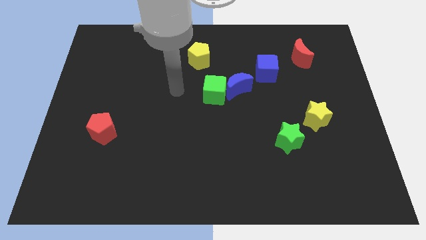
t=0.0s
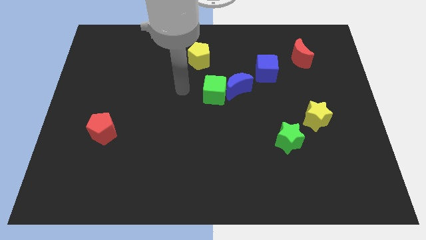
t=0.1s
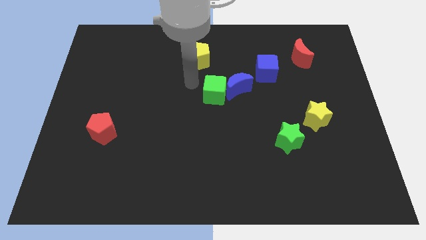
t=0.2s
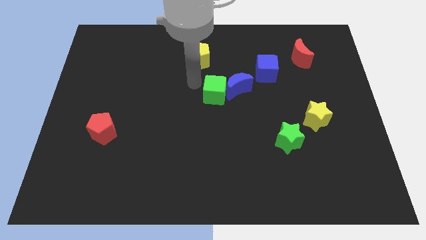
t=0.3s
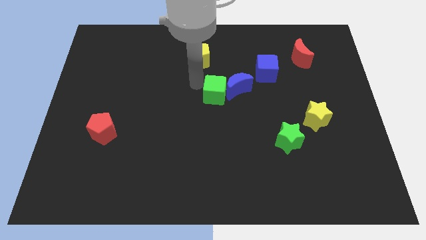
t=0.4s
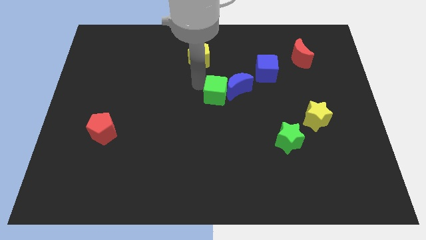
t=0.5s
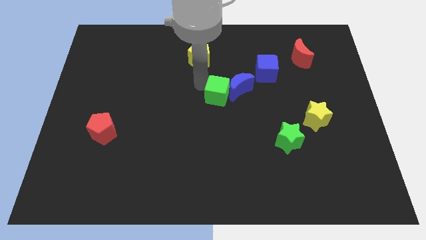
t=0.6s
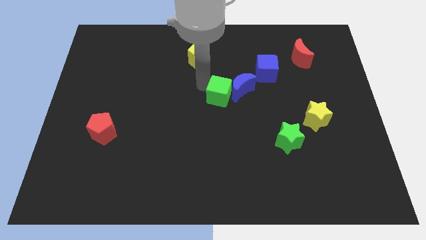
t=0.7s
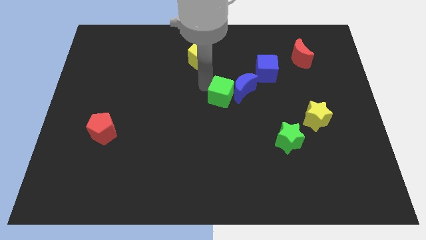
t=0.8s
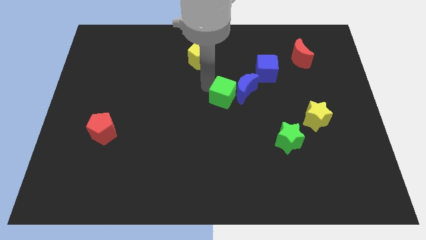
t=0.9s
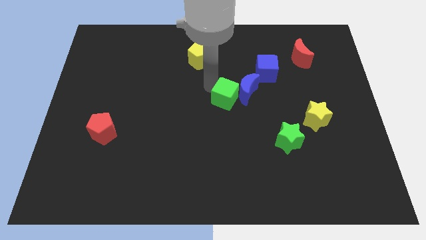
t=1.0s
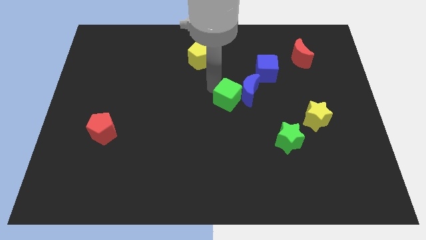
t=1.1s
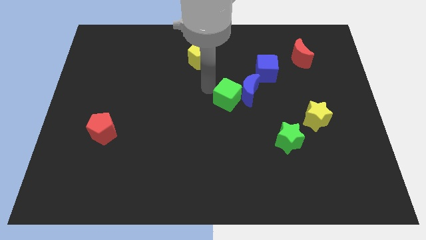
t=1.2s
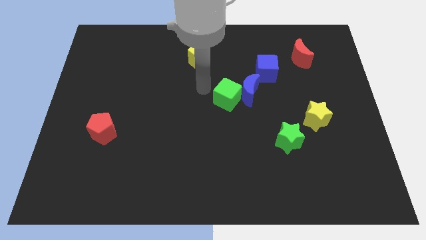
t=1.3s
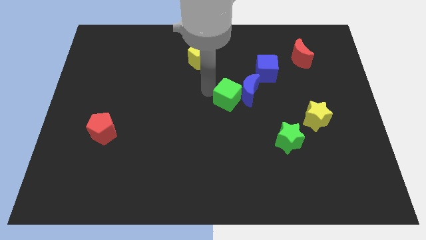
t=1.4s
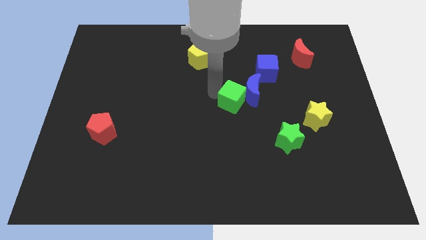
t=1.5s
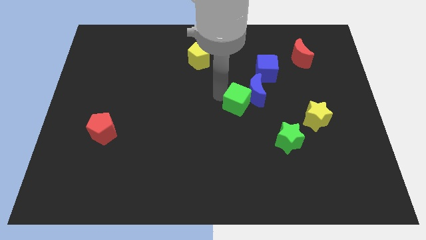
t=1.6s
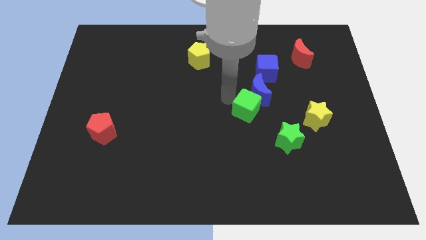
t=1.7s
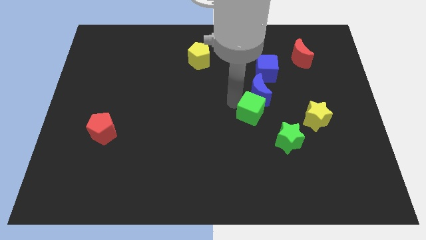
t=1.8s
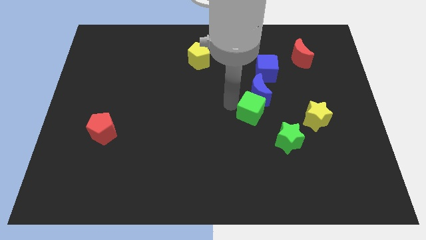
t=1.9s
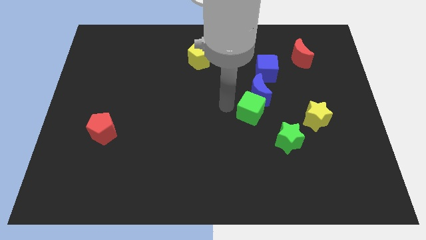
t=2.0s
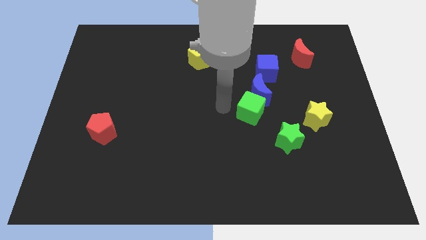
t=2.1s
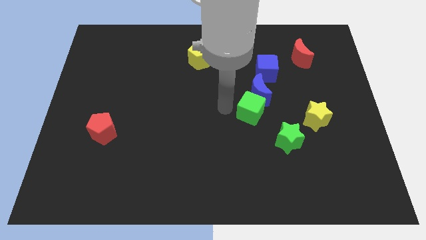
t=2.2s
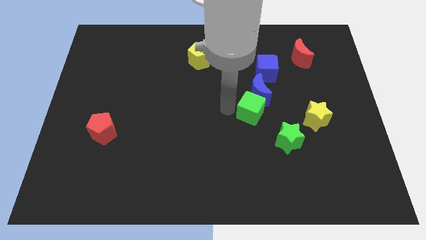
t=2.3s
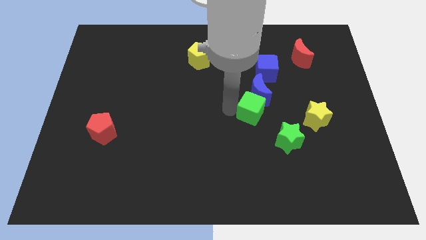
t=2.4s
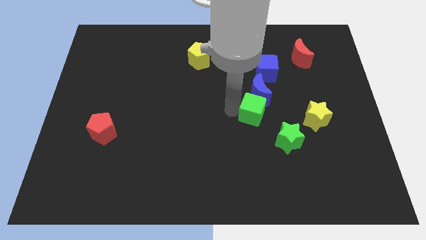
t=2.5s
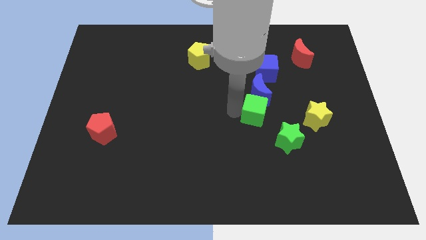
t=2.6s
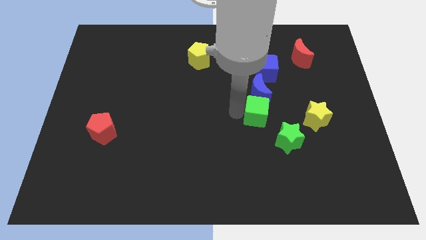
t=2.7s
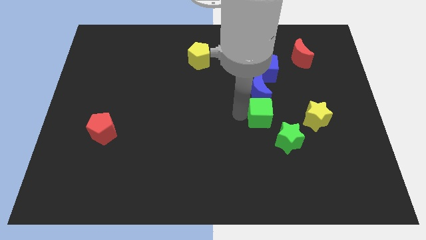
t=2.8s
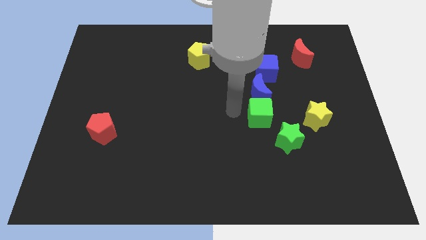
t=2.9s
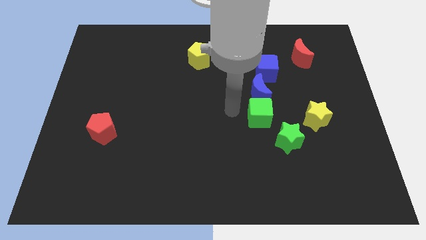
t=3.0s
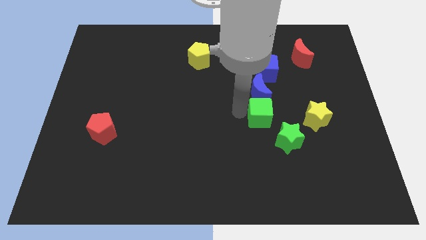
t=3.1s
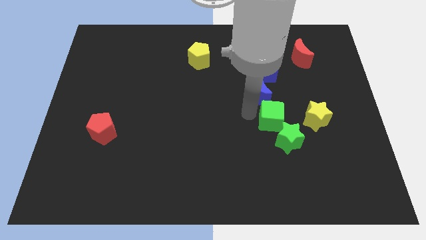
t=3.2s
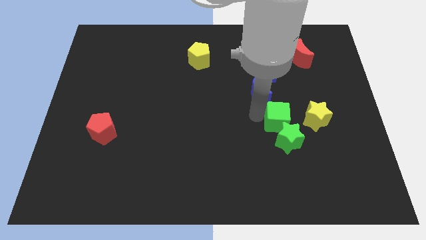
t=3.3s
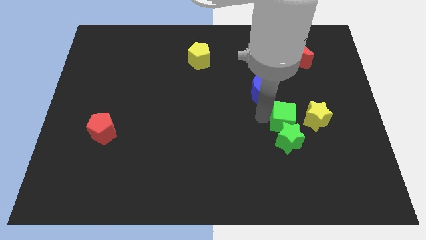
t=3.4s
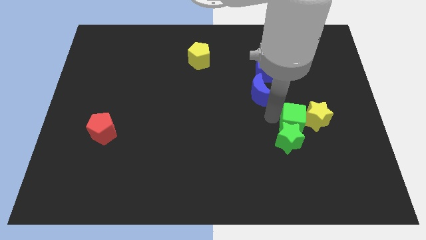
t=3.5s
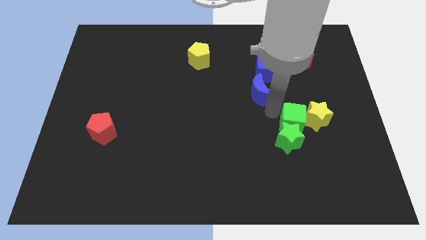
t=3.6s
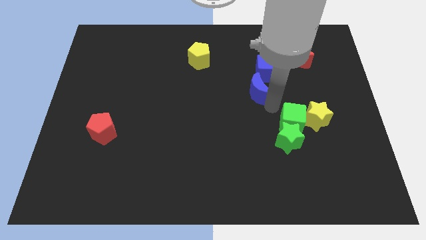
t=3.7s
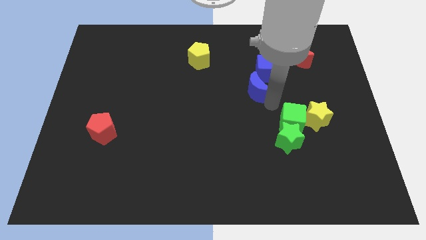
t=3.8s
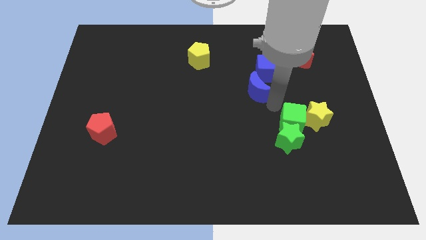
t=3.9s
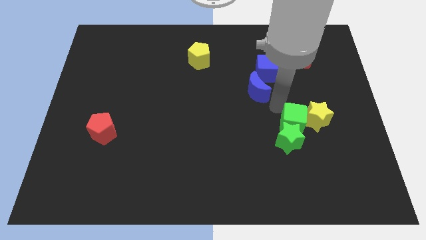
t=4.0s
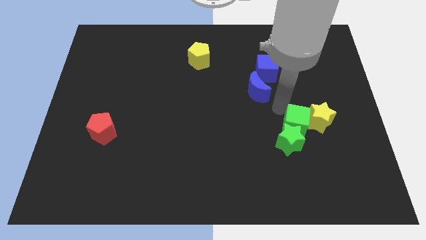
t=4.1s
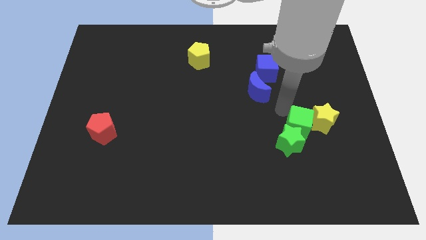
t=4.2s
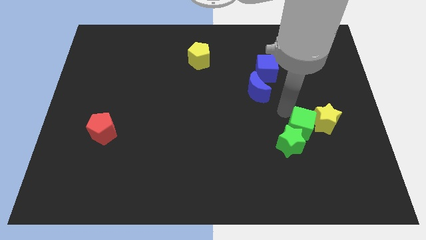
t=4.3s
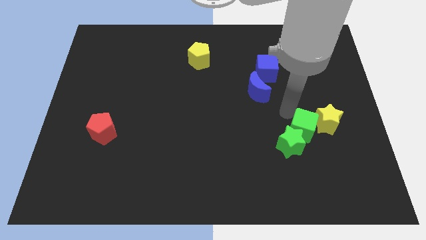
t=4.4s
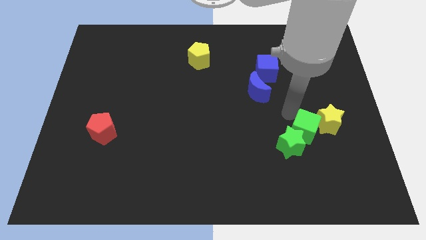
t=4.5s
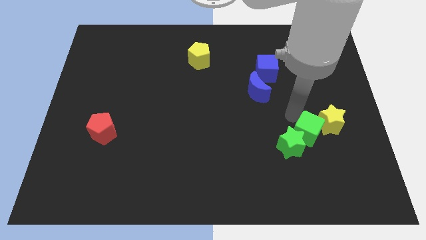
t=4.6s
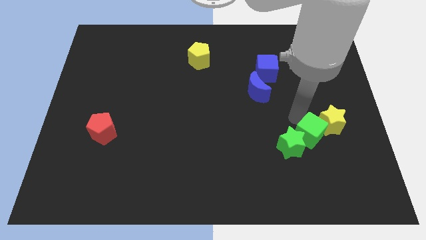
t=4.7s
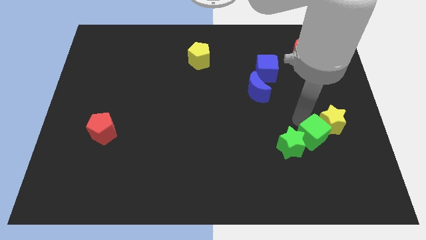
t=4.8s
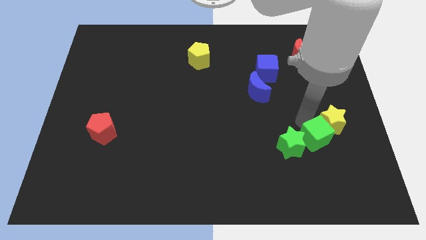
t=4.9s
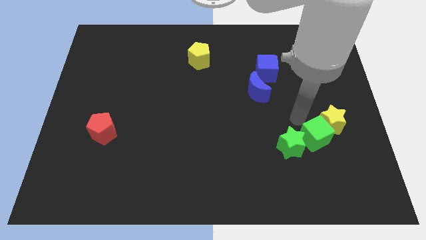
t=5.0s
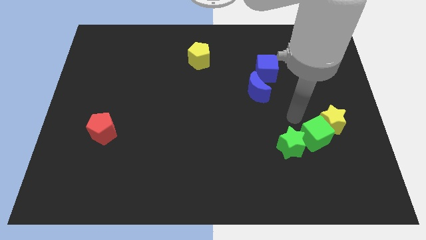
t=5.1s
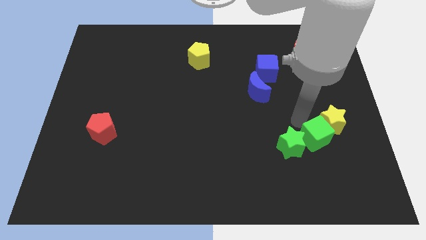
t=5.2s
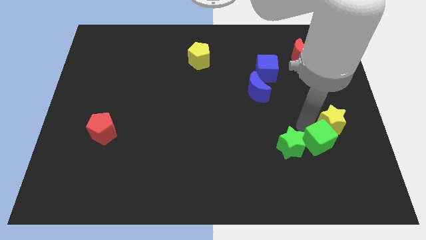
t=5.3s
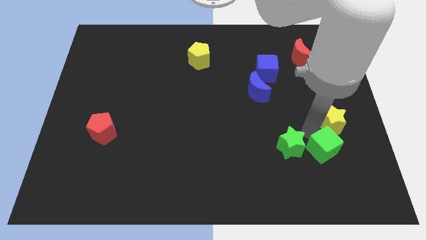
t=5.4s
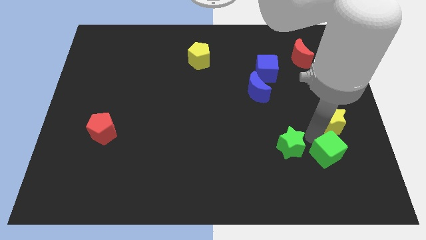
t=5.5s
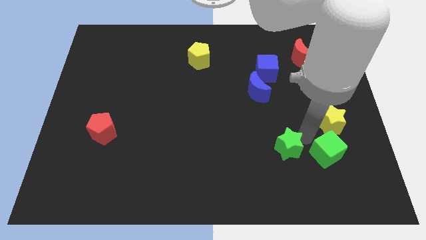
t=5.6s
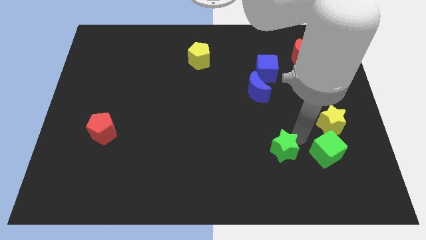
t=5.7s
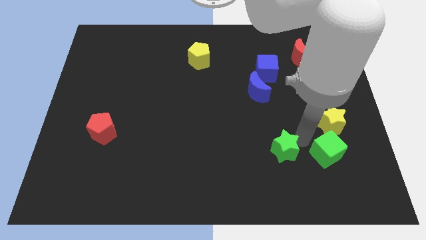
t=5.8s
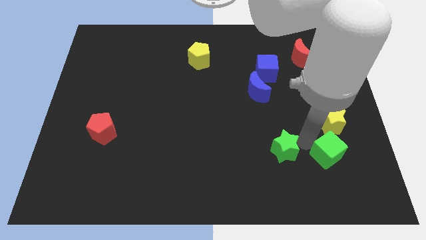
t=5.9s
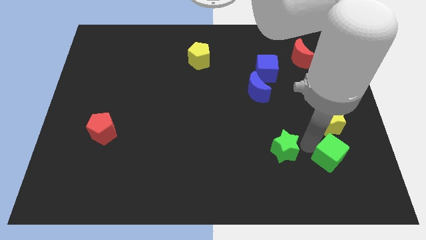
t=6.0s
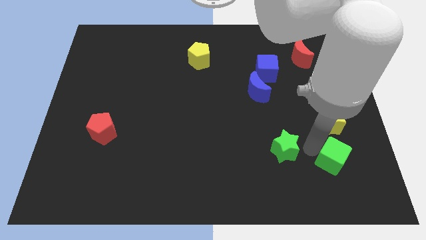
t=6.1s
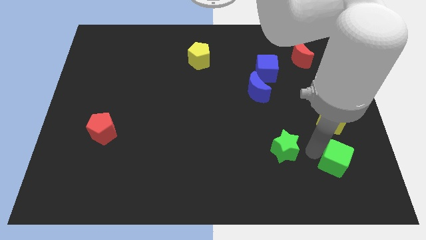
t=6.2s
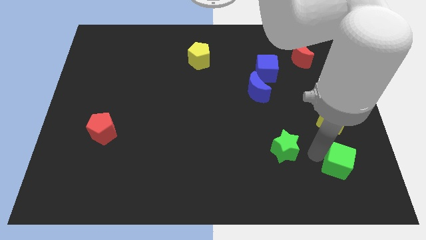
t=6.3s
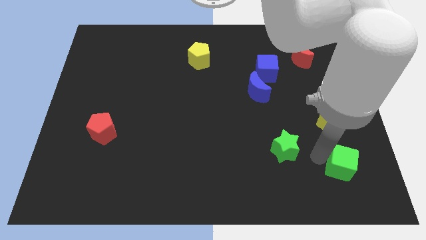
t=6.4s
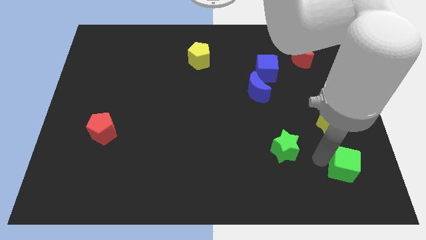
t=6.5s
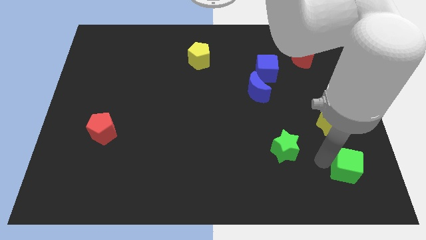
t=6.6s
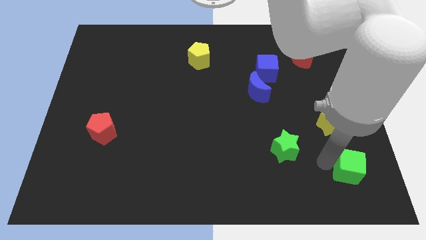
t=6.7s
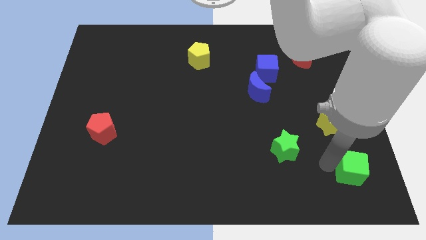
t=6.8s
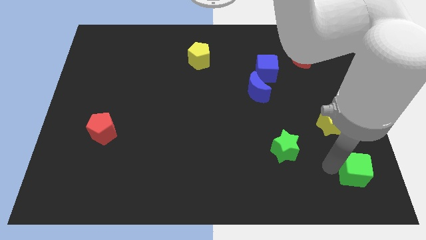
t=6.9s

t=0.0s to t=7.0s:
put the green cube to the lower right corner
